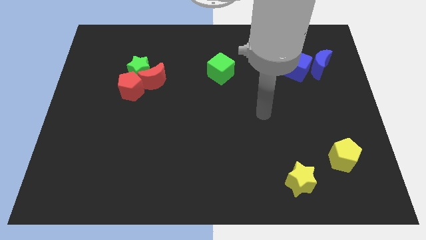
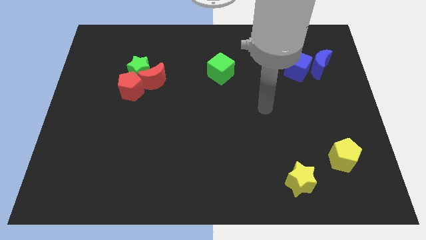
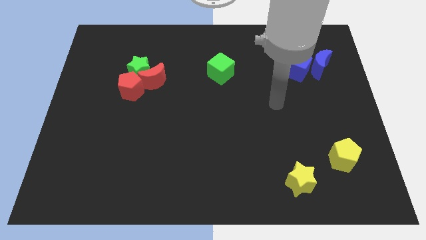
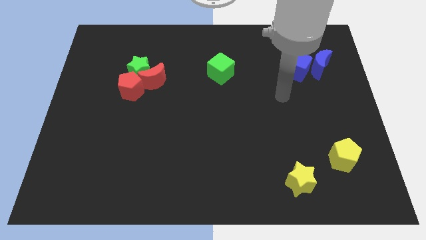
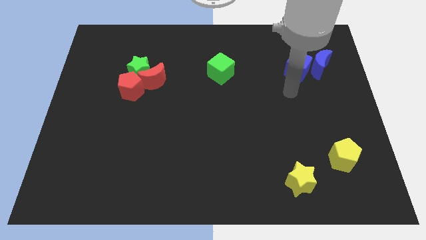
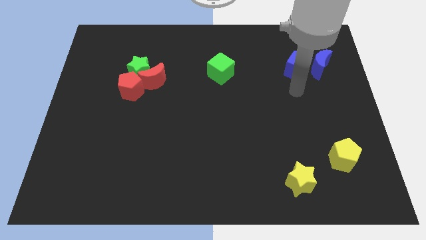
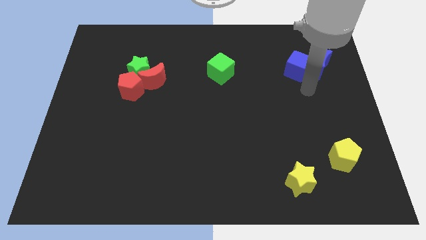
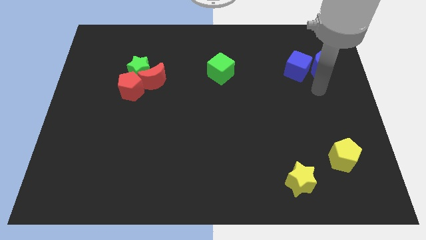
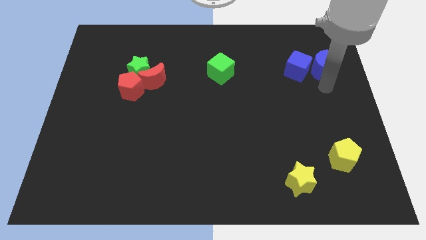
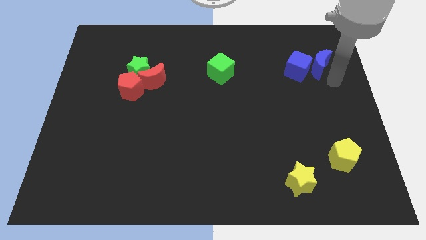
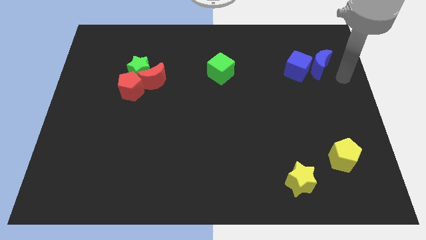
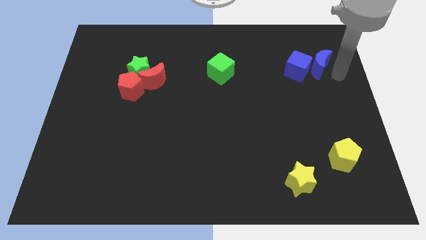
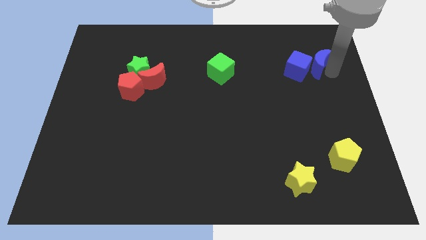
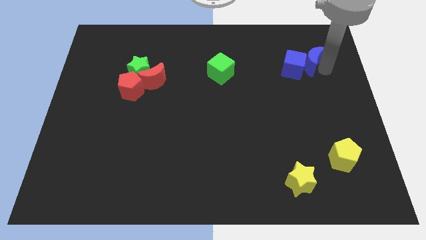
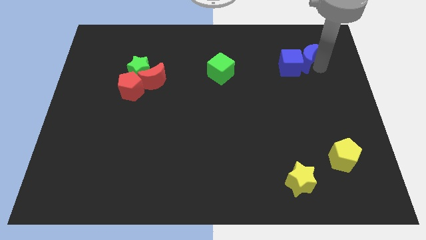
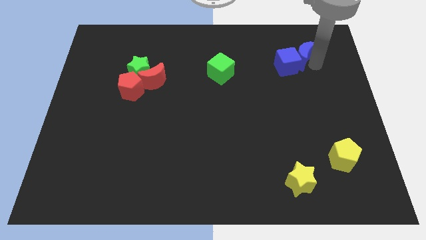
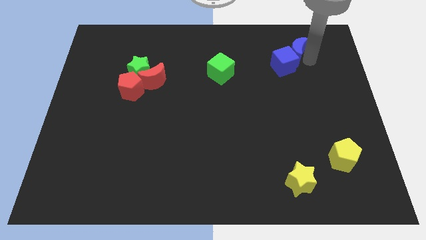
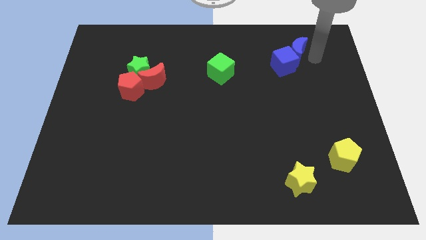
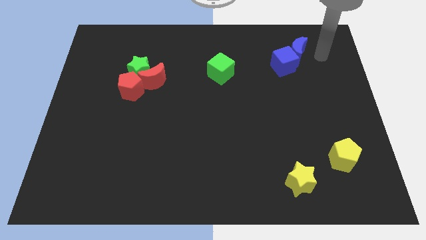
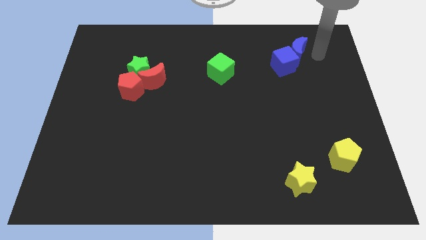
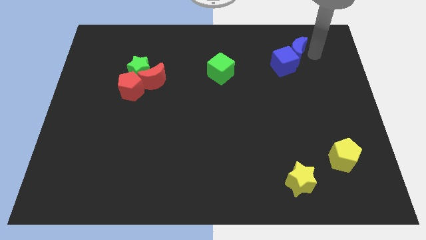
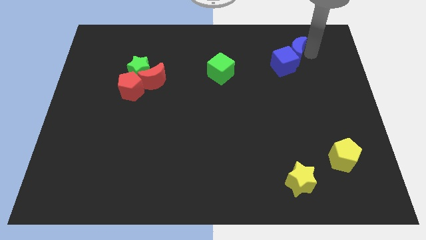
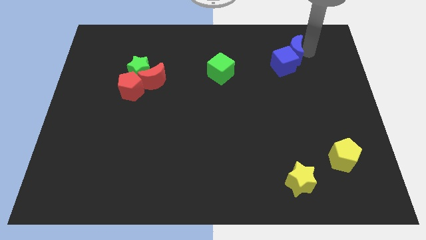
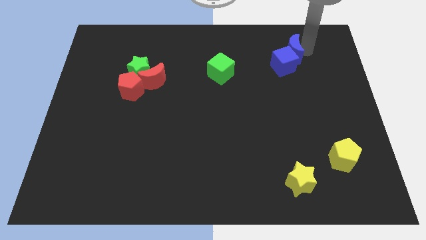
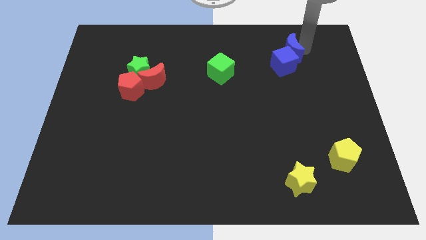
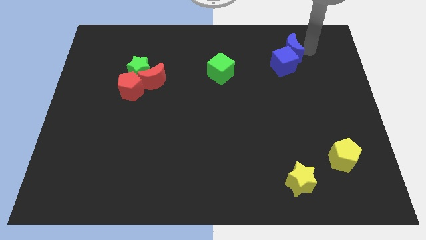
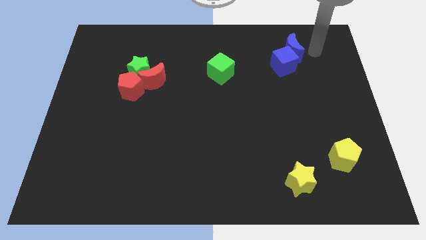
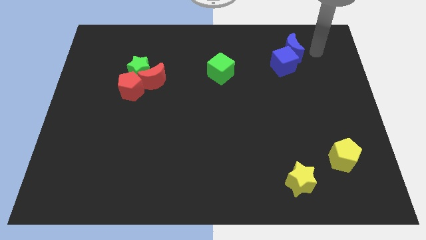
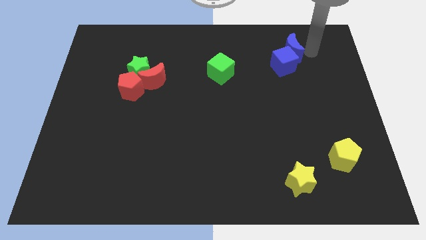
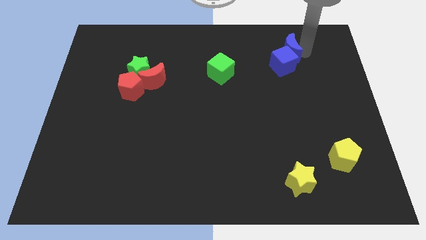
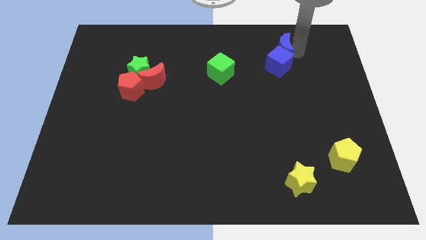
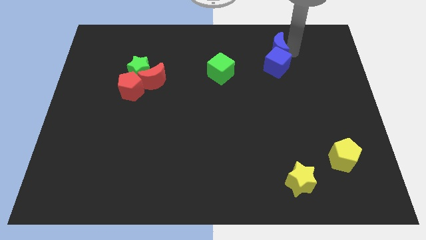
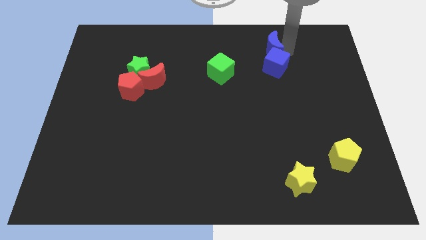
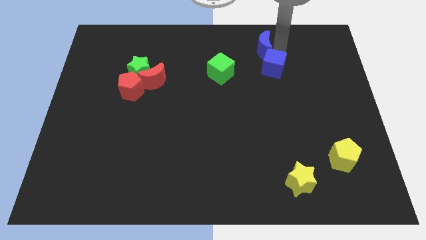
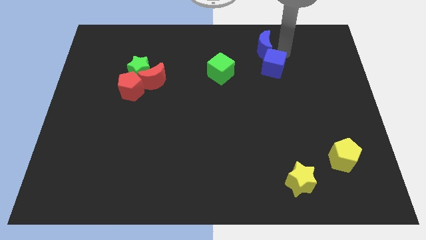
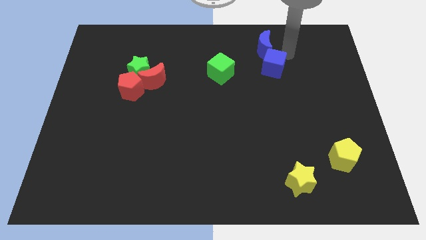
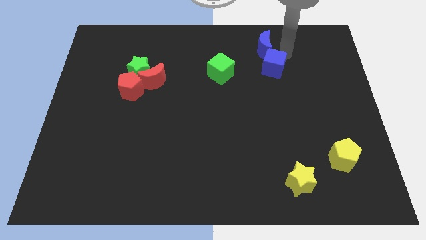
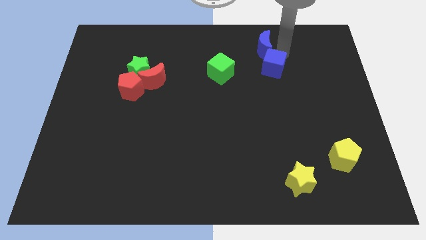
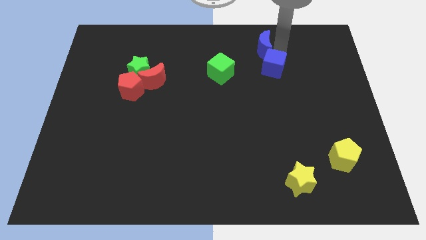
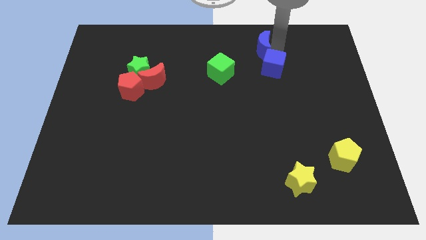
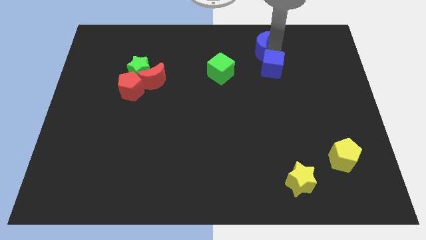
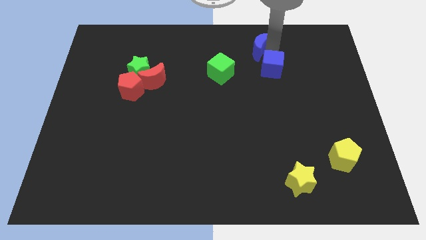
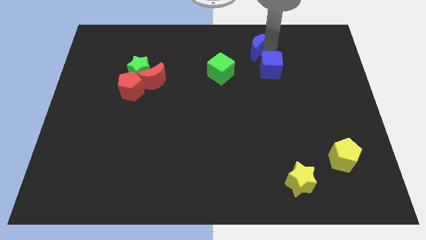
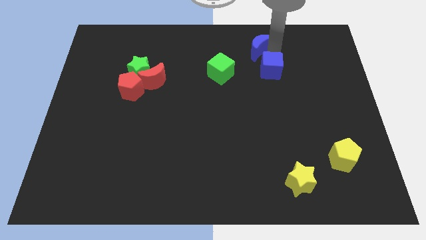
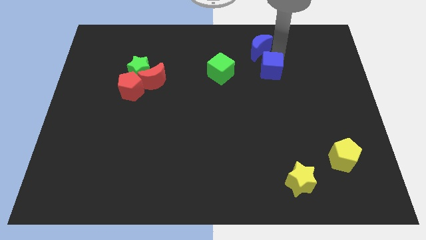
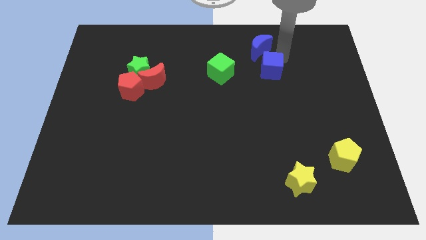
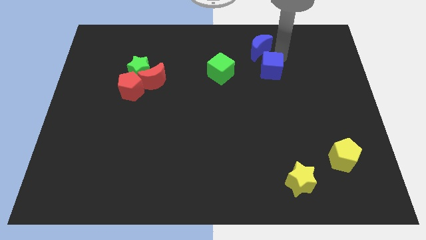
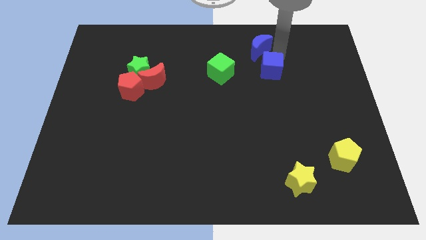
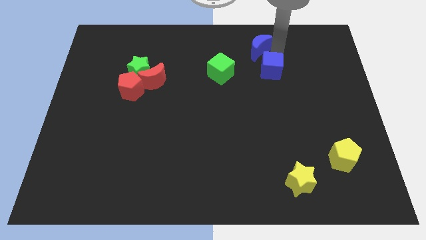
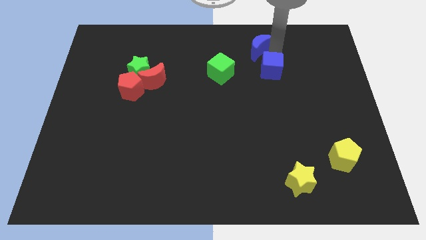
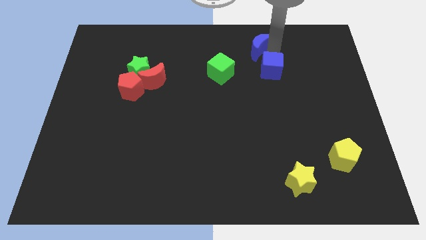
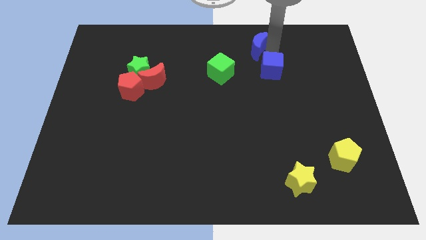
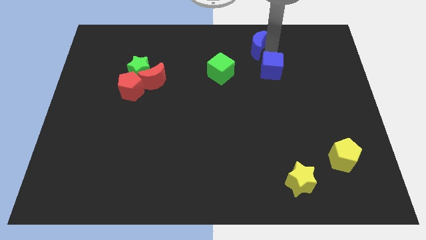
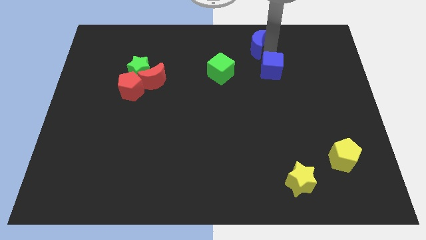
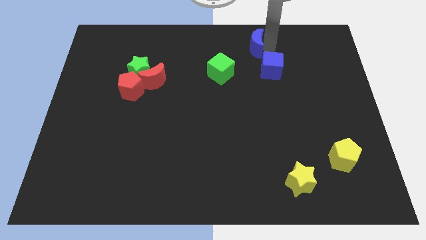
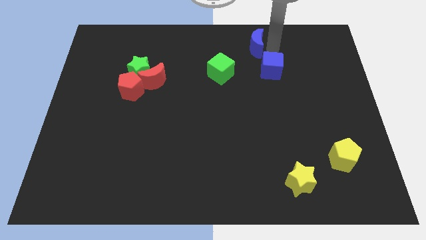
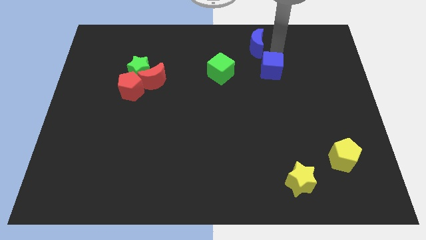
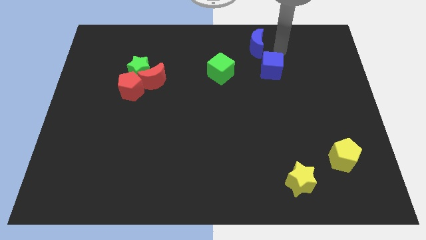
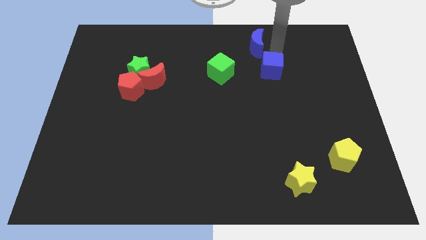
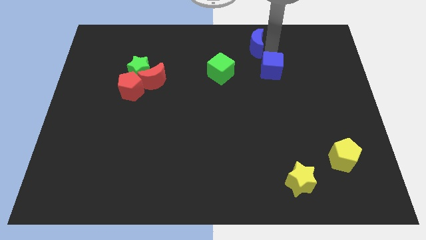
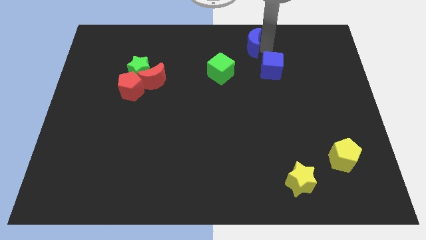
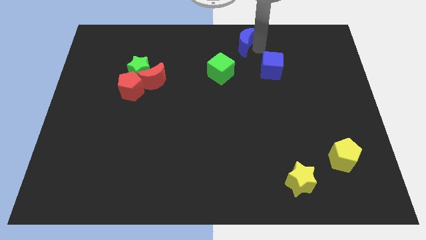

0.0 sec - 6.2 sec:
put the blue moon to the top
